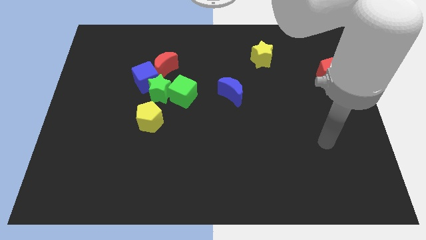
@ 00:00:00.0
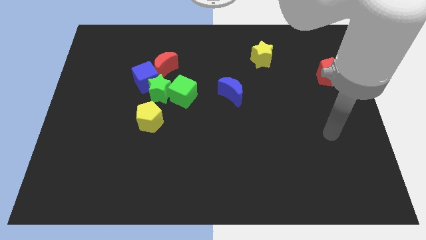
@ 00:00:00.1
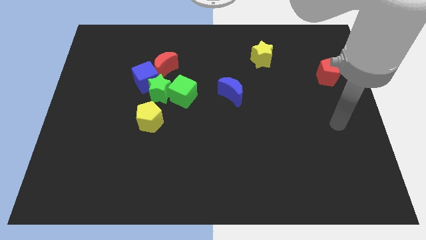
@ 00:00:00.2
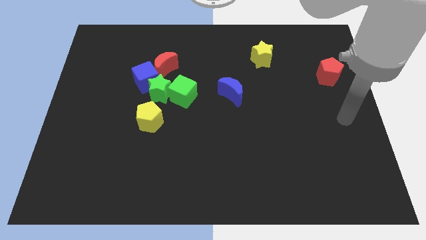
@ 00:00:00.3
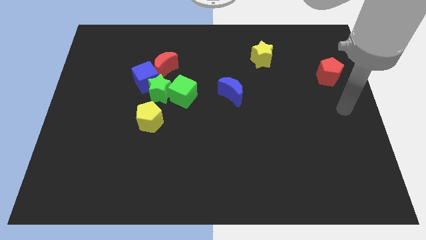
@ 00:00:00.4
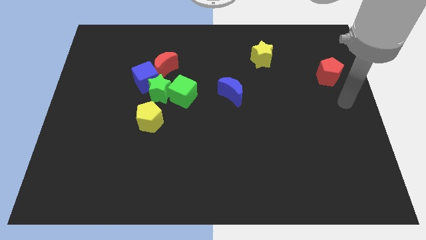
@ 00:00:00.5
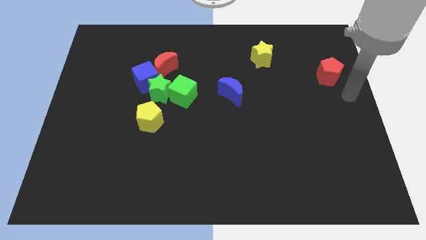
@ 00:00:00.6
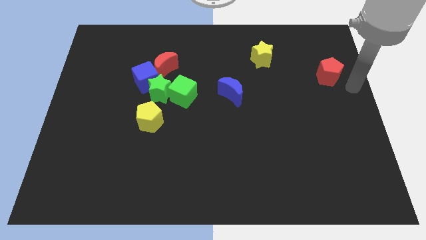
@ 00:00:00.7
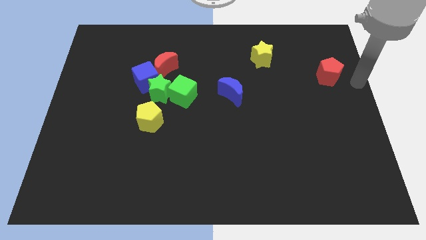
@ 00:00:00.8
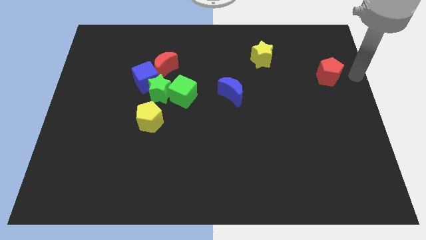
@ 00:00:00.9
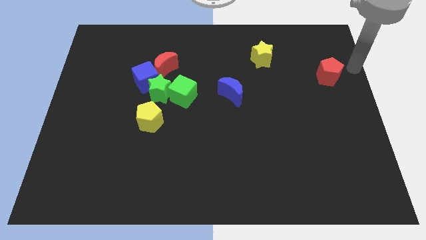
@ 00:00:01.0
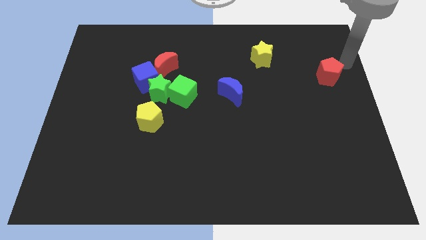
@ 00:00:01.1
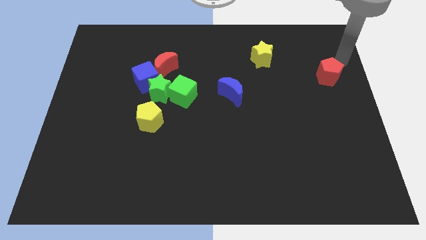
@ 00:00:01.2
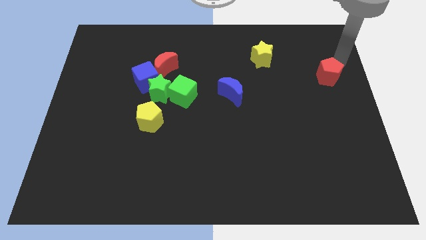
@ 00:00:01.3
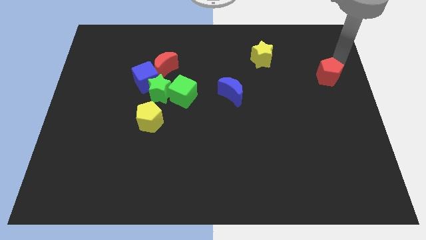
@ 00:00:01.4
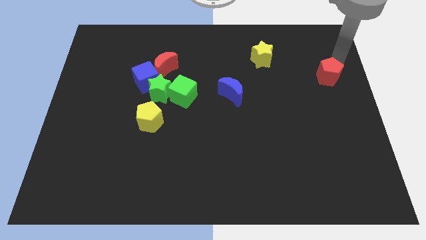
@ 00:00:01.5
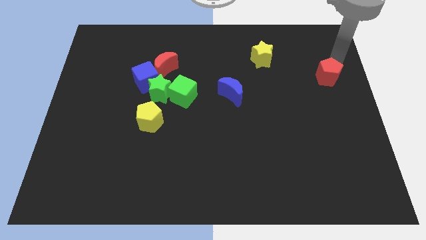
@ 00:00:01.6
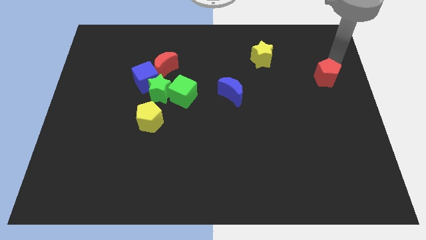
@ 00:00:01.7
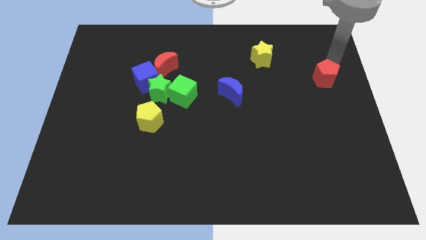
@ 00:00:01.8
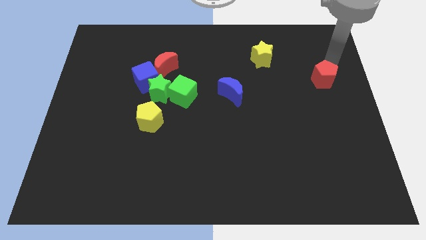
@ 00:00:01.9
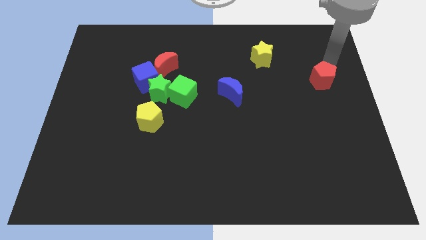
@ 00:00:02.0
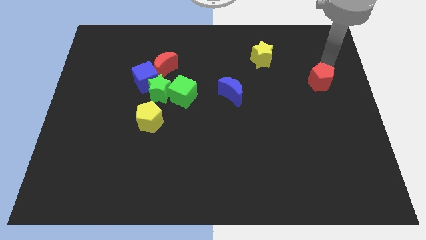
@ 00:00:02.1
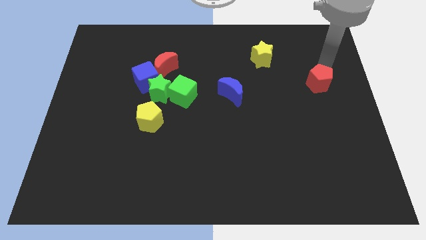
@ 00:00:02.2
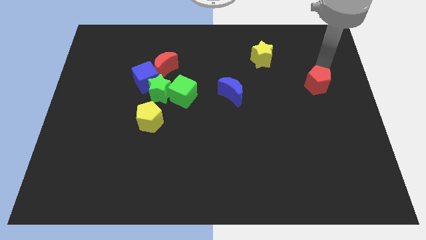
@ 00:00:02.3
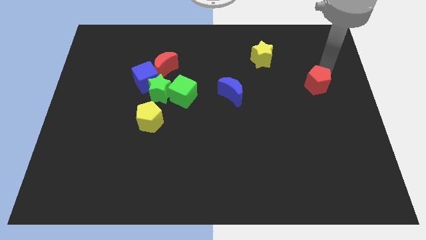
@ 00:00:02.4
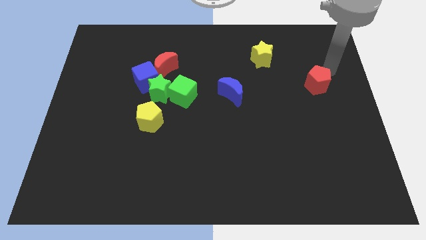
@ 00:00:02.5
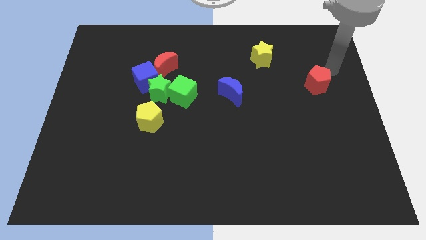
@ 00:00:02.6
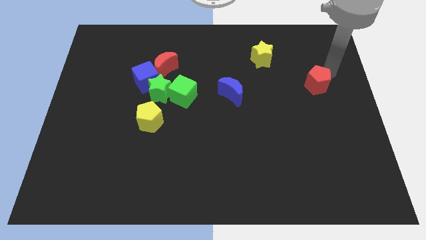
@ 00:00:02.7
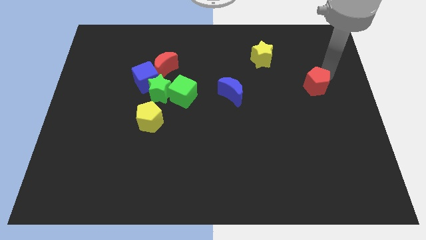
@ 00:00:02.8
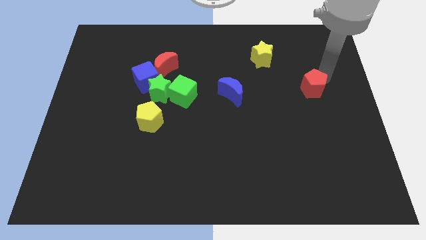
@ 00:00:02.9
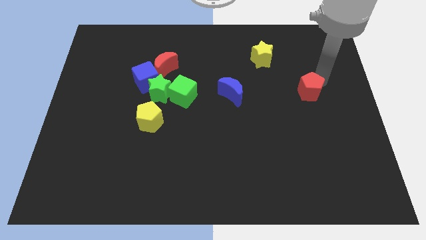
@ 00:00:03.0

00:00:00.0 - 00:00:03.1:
slightly move the red pentagon diagonally down and left

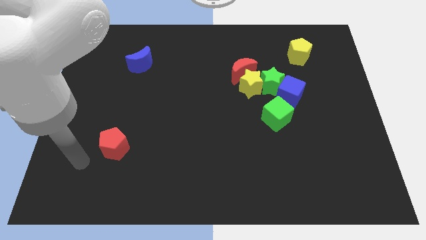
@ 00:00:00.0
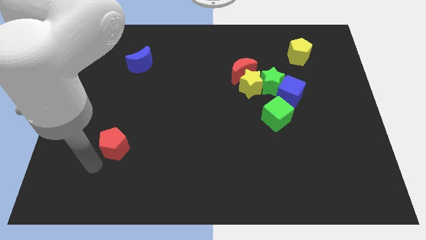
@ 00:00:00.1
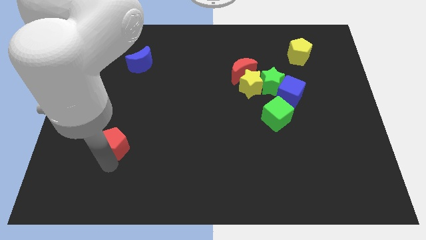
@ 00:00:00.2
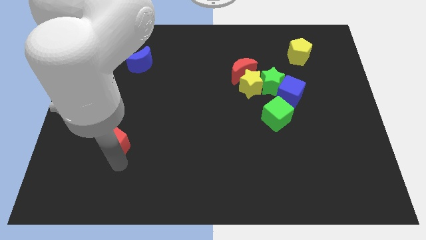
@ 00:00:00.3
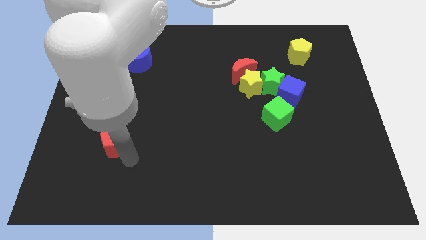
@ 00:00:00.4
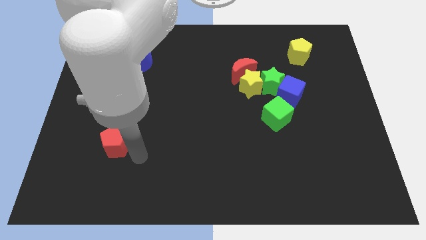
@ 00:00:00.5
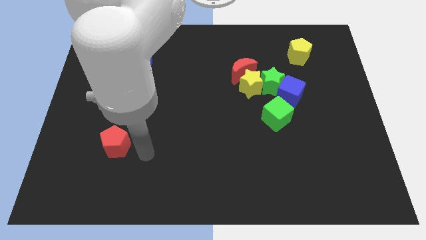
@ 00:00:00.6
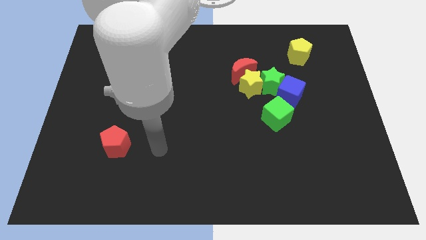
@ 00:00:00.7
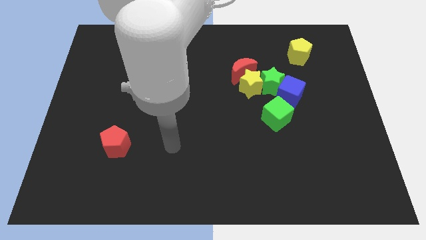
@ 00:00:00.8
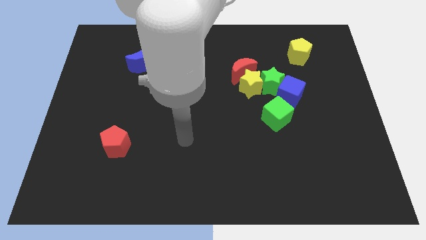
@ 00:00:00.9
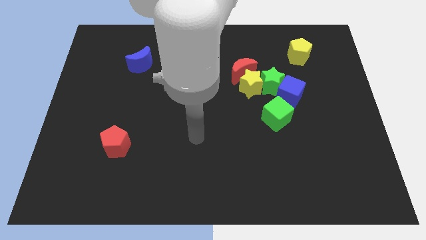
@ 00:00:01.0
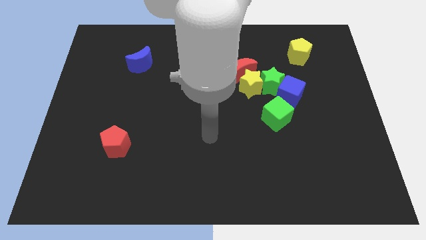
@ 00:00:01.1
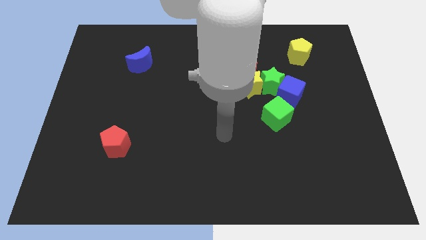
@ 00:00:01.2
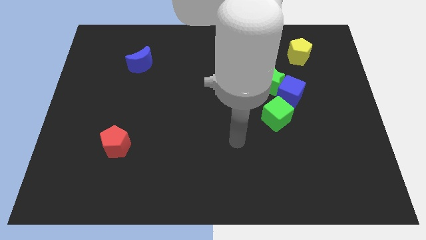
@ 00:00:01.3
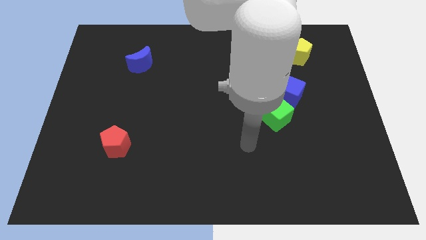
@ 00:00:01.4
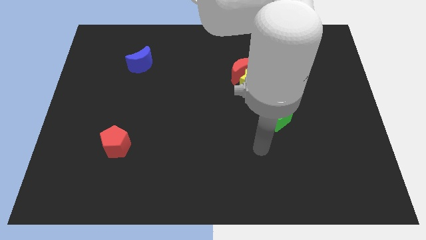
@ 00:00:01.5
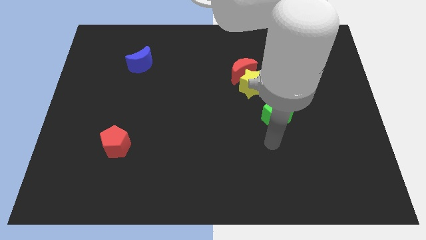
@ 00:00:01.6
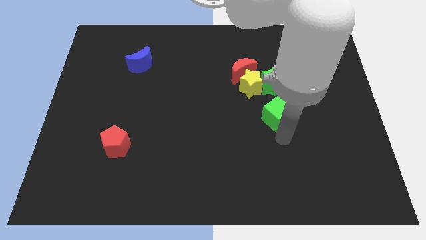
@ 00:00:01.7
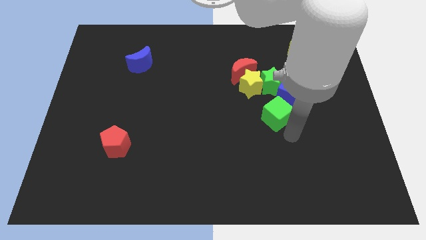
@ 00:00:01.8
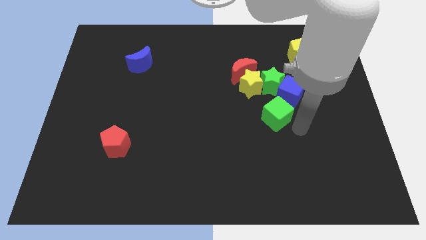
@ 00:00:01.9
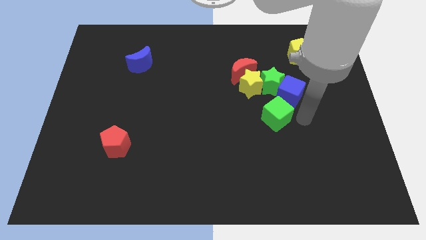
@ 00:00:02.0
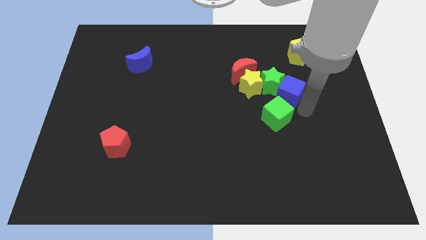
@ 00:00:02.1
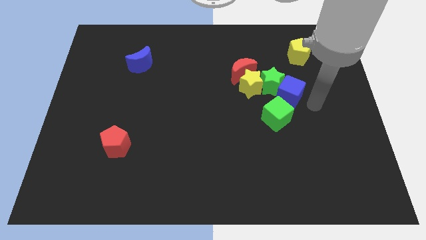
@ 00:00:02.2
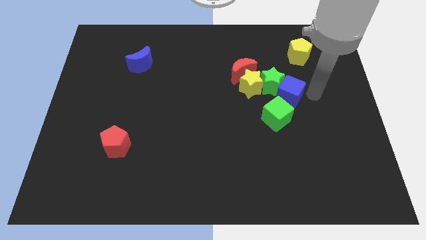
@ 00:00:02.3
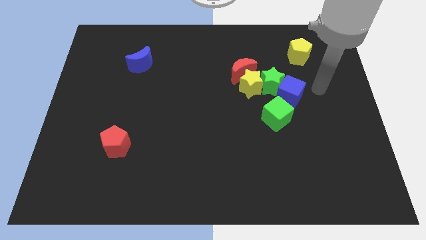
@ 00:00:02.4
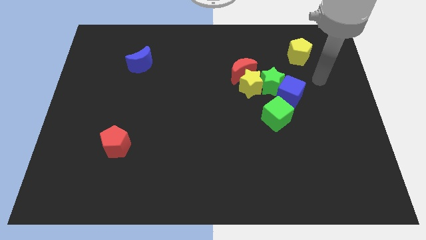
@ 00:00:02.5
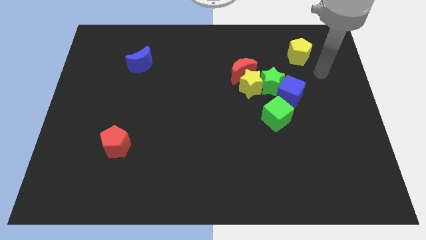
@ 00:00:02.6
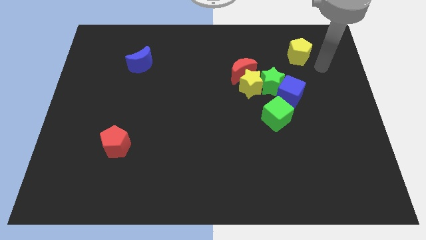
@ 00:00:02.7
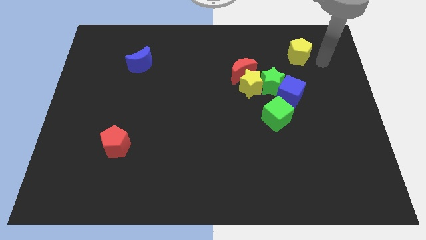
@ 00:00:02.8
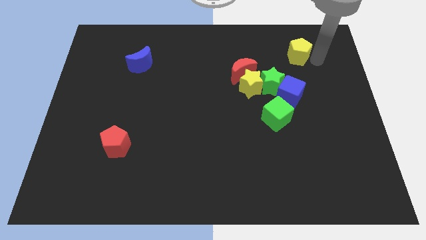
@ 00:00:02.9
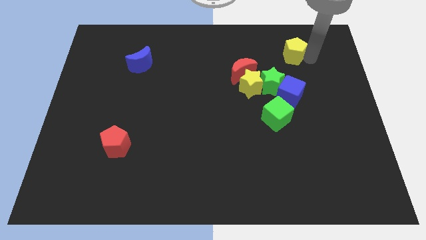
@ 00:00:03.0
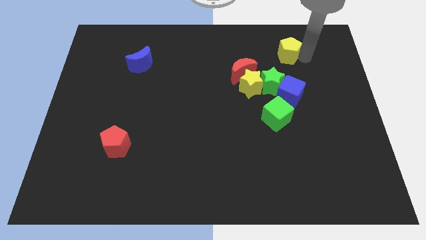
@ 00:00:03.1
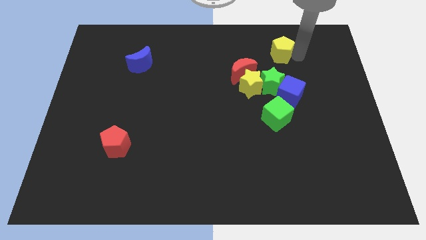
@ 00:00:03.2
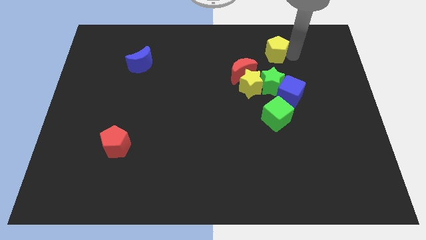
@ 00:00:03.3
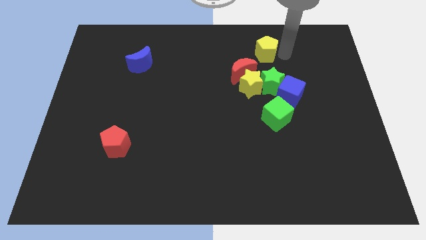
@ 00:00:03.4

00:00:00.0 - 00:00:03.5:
slightly slide the yellow pentagon to the left

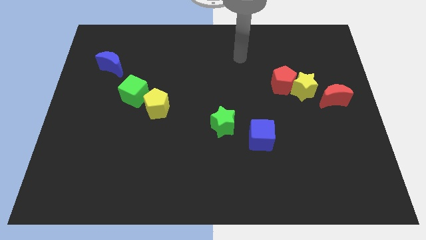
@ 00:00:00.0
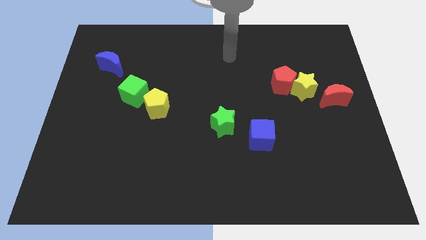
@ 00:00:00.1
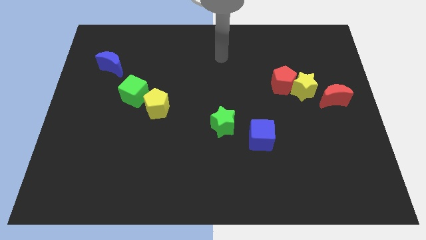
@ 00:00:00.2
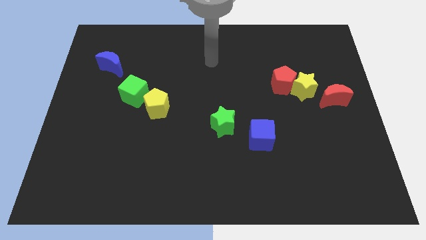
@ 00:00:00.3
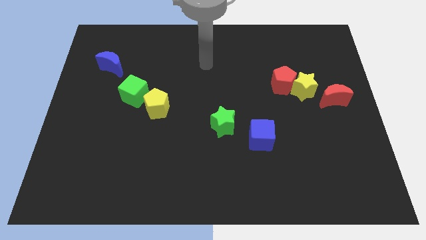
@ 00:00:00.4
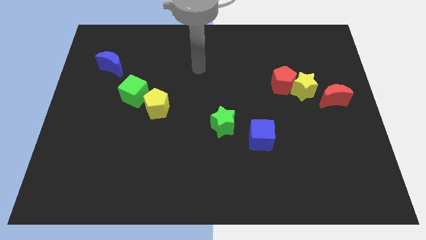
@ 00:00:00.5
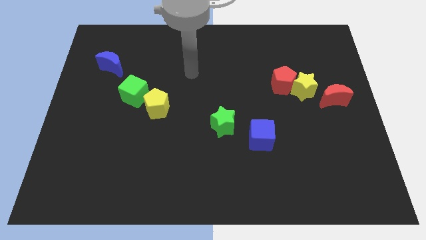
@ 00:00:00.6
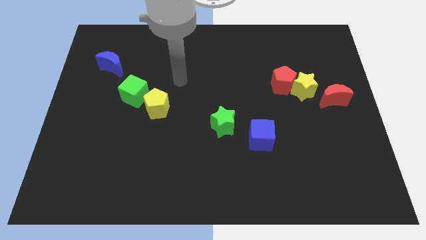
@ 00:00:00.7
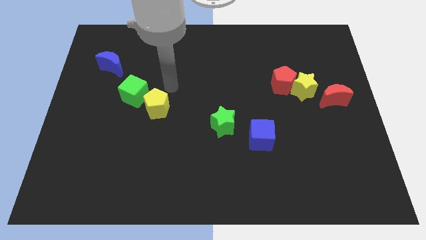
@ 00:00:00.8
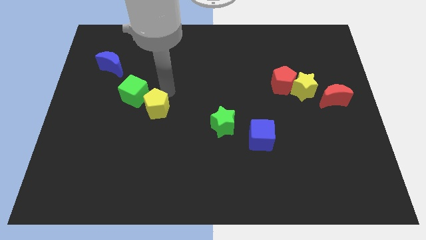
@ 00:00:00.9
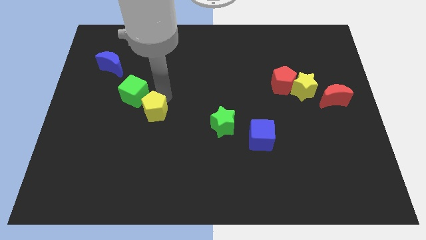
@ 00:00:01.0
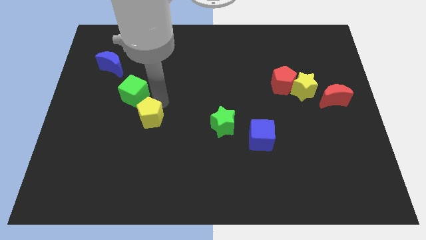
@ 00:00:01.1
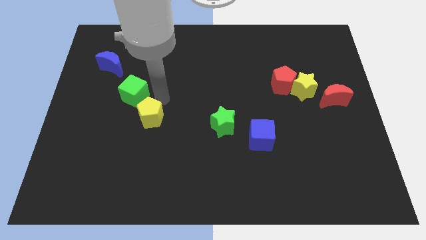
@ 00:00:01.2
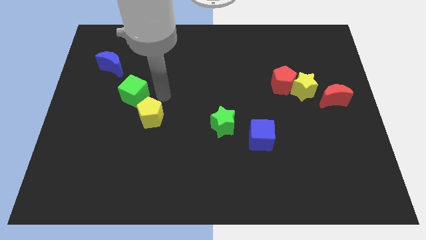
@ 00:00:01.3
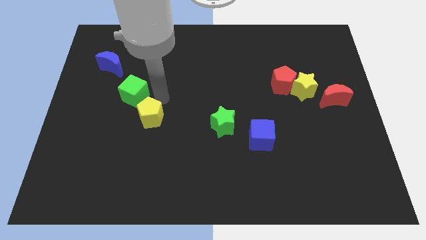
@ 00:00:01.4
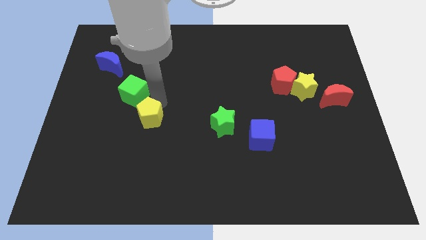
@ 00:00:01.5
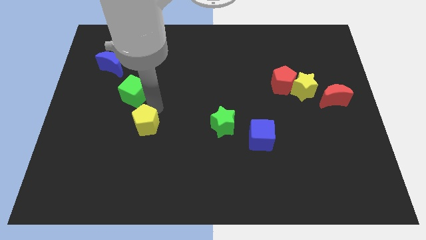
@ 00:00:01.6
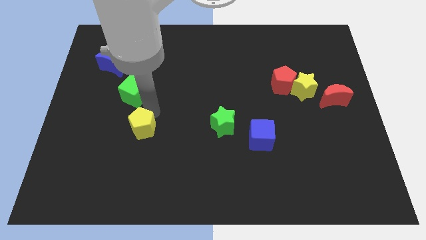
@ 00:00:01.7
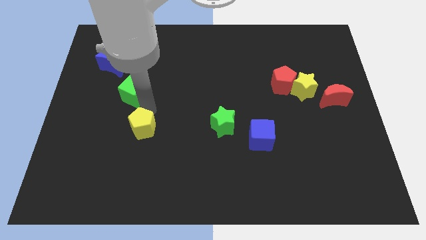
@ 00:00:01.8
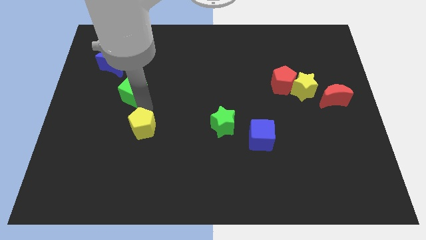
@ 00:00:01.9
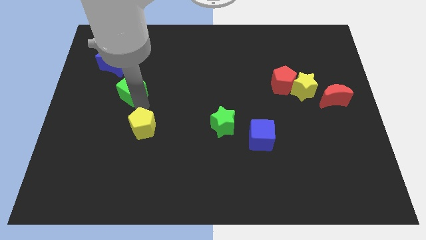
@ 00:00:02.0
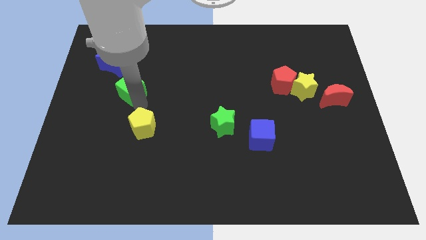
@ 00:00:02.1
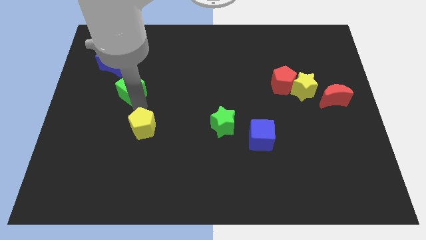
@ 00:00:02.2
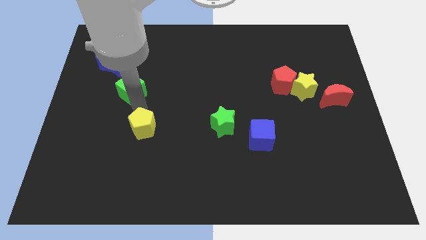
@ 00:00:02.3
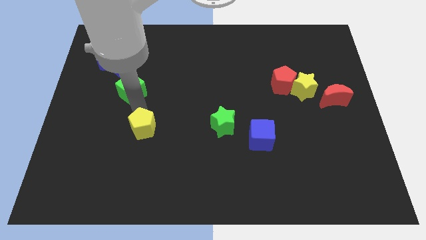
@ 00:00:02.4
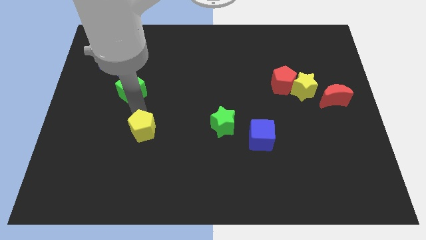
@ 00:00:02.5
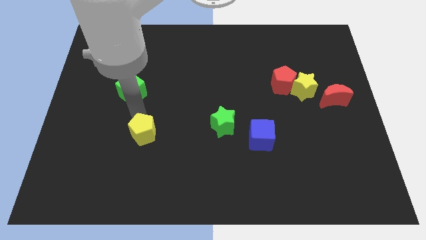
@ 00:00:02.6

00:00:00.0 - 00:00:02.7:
move the yellow pentagon downwards a little bit
